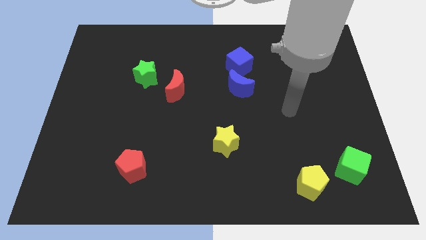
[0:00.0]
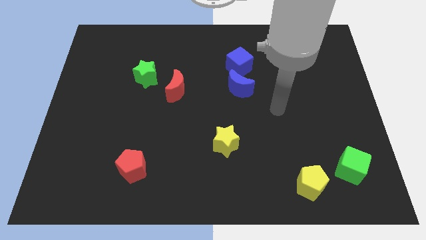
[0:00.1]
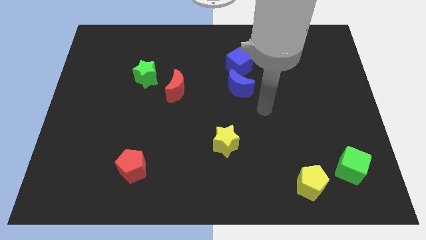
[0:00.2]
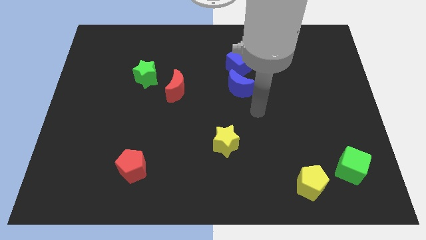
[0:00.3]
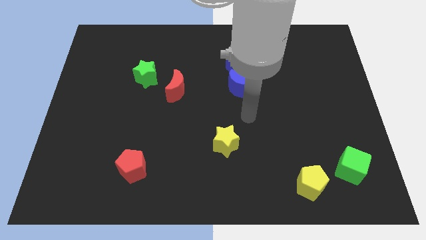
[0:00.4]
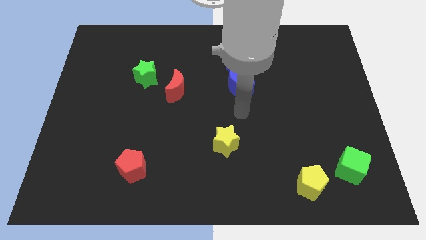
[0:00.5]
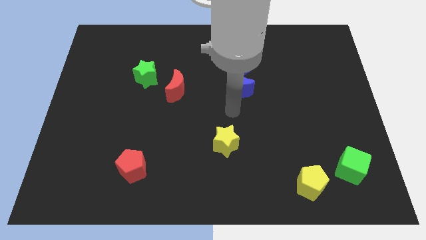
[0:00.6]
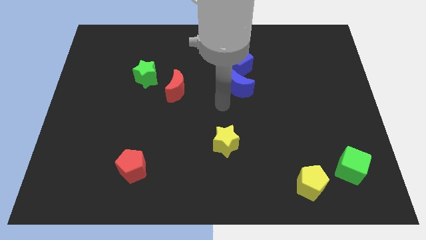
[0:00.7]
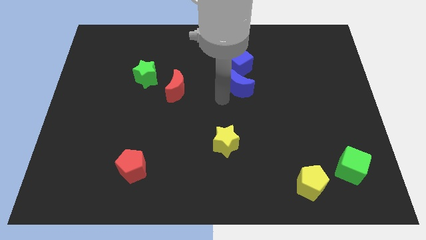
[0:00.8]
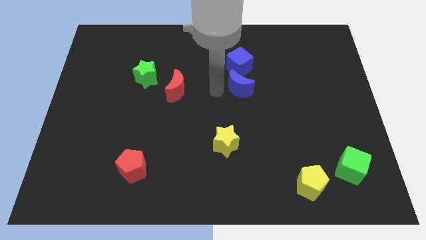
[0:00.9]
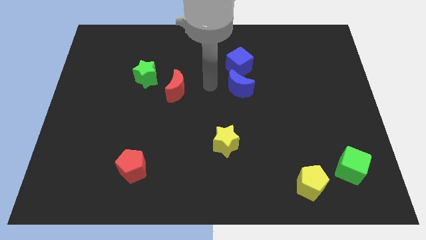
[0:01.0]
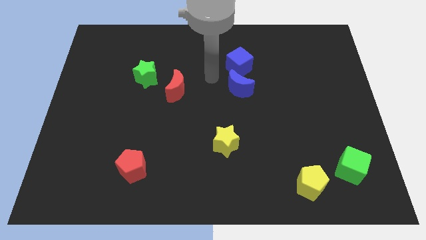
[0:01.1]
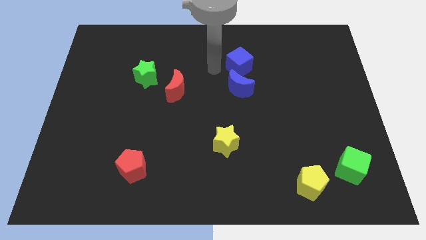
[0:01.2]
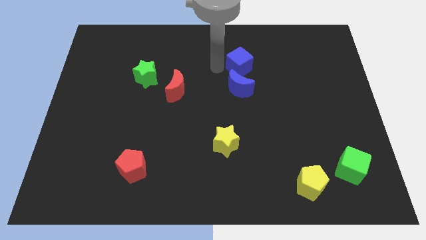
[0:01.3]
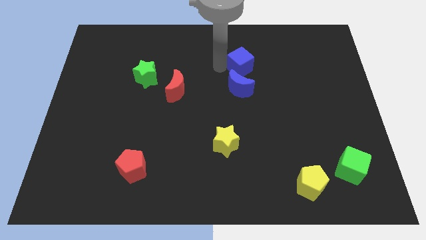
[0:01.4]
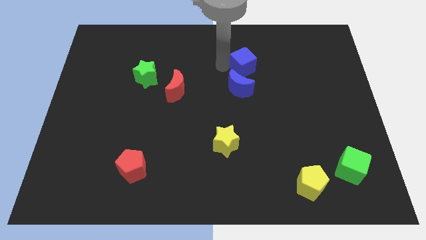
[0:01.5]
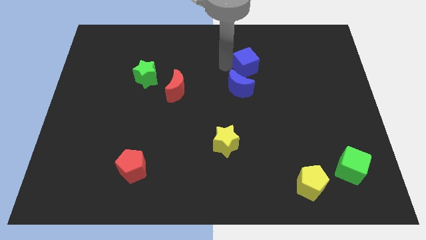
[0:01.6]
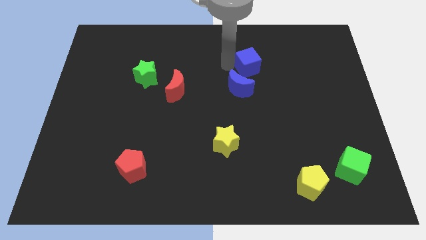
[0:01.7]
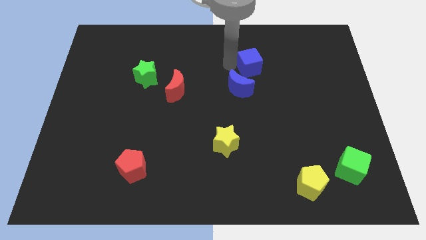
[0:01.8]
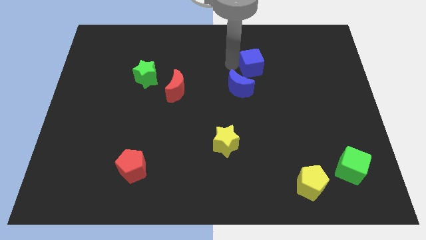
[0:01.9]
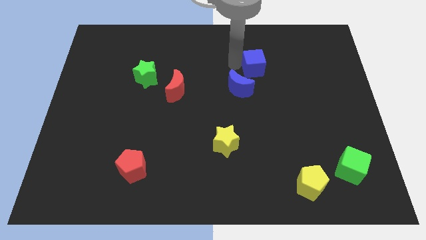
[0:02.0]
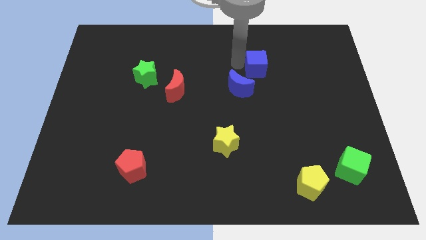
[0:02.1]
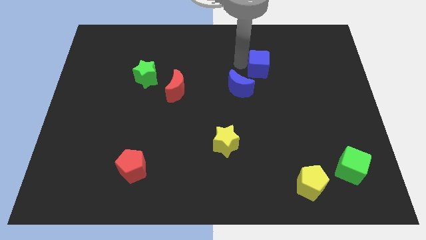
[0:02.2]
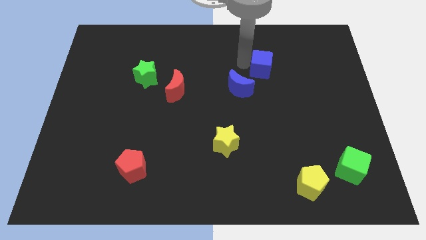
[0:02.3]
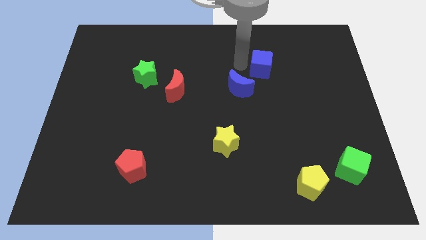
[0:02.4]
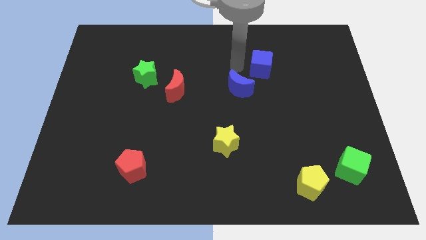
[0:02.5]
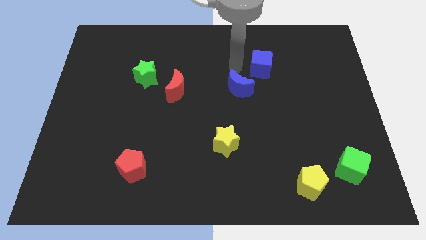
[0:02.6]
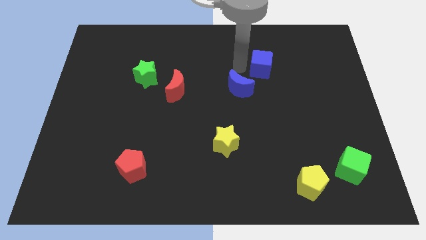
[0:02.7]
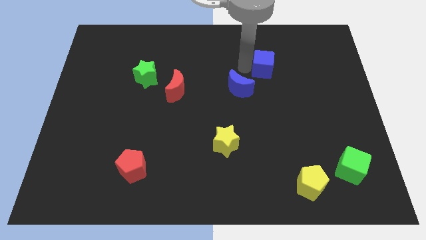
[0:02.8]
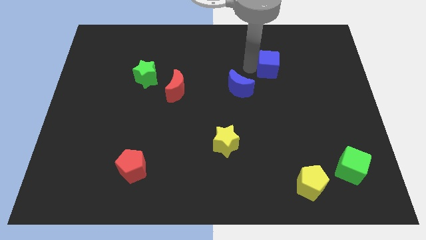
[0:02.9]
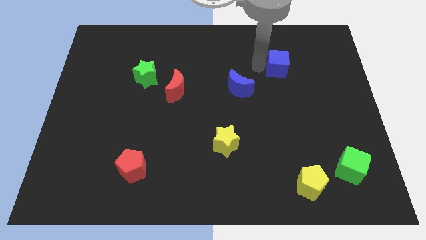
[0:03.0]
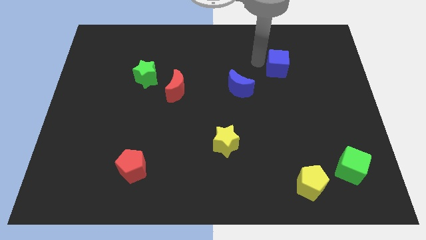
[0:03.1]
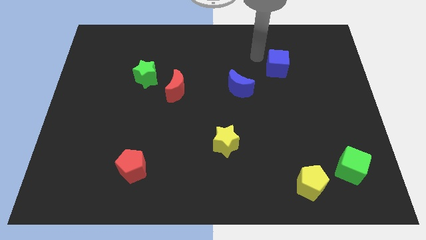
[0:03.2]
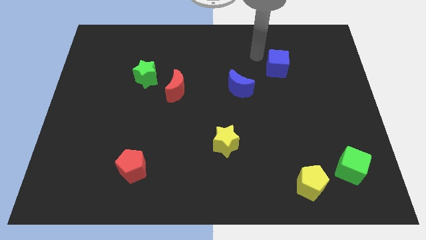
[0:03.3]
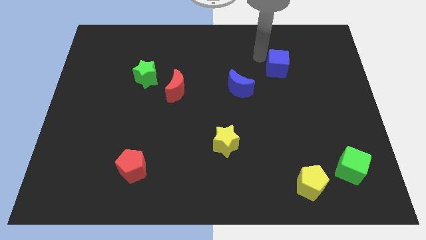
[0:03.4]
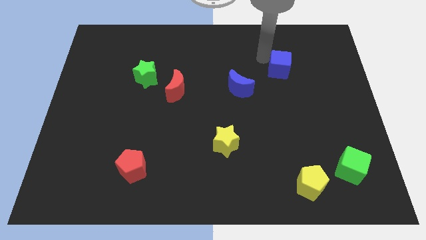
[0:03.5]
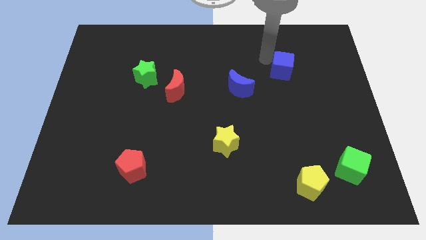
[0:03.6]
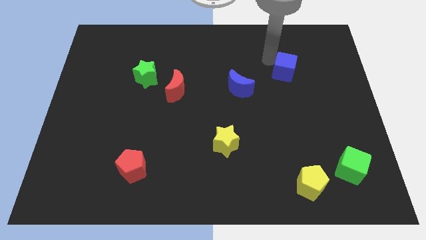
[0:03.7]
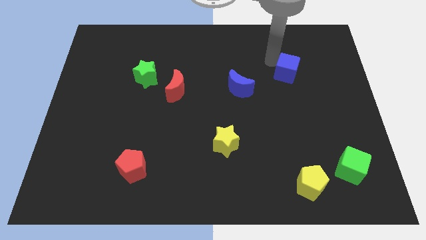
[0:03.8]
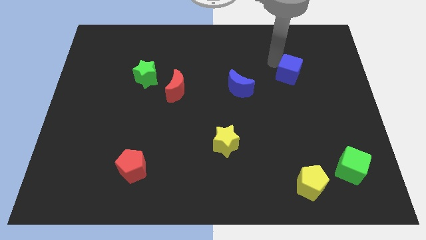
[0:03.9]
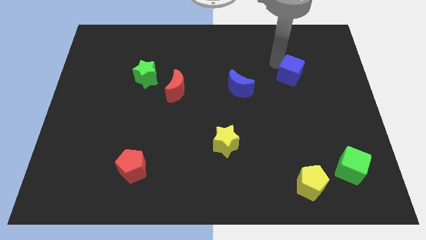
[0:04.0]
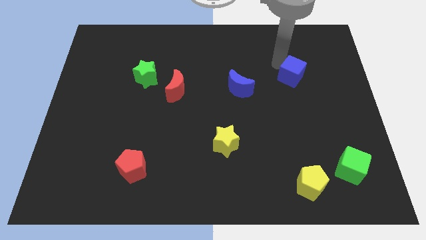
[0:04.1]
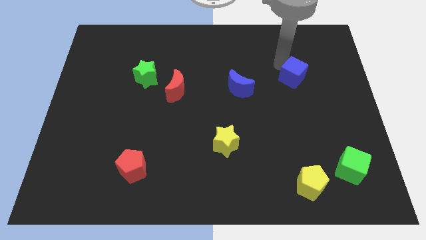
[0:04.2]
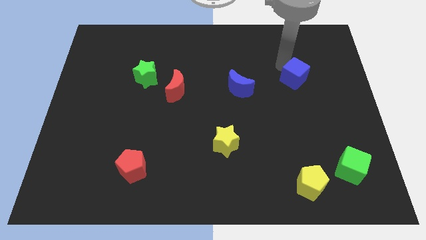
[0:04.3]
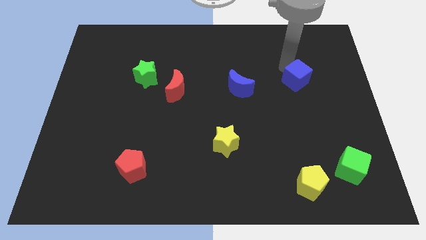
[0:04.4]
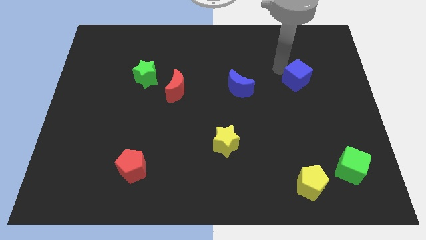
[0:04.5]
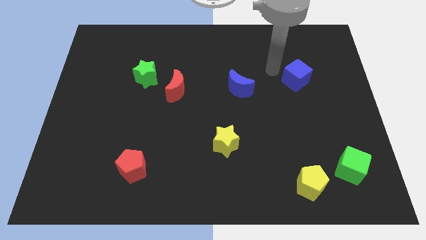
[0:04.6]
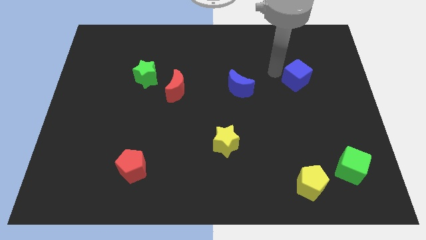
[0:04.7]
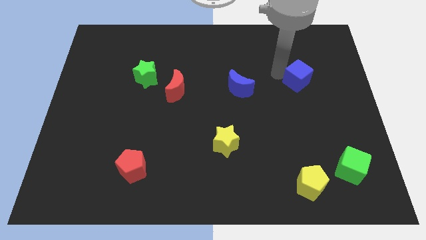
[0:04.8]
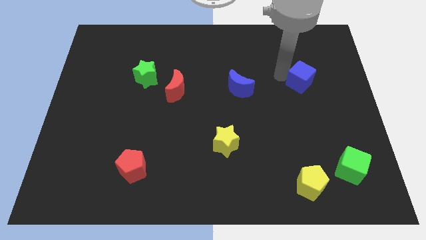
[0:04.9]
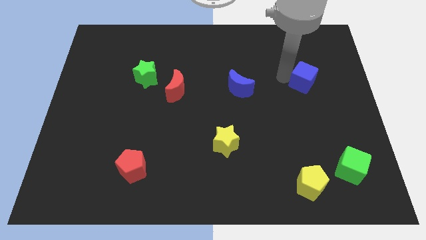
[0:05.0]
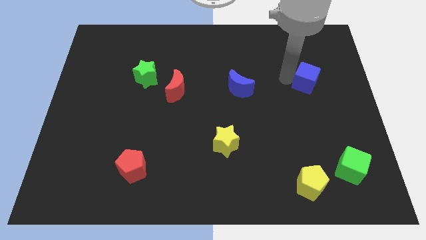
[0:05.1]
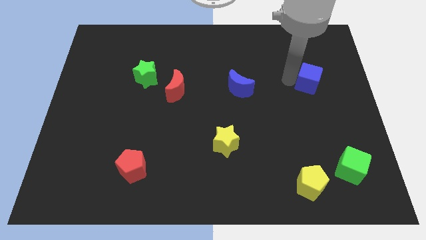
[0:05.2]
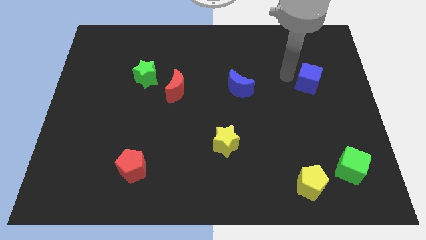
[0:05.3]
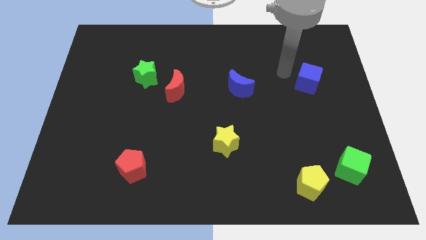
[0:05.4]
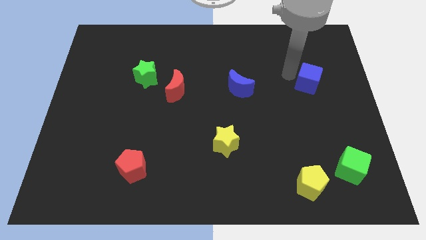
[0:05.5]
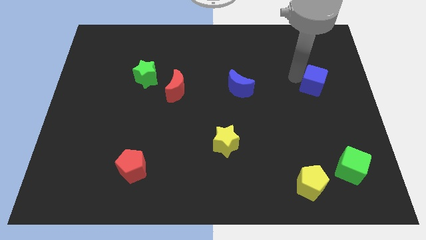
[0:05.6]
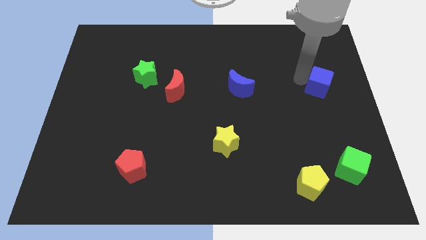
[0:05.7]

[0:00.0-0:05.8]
put the blue cube to the right side

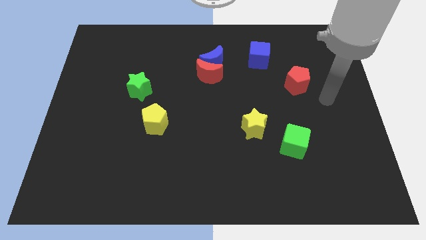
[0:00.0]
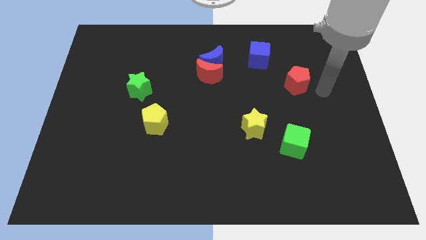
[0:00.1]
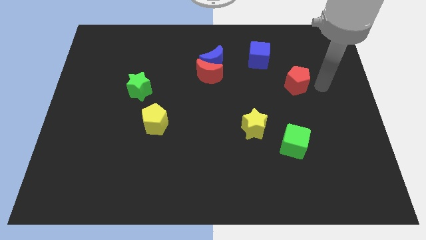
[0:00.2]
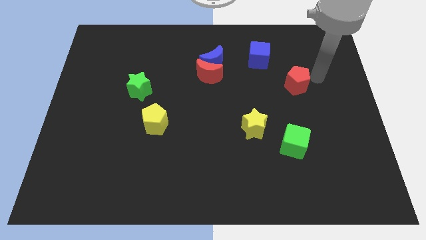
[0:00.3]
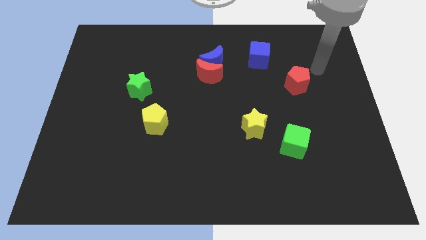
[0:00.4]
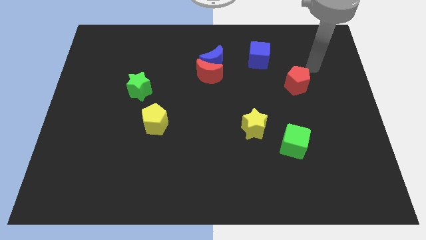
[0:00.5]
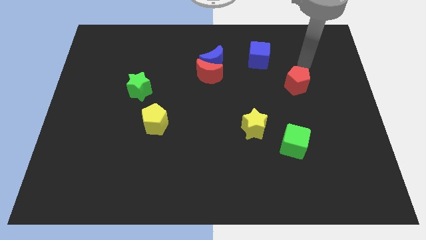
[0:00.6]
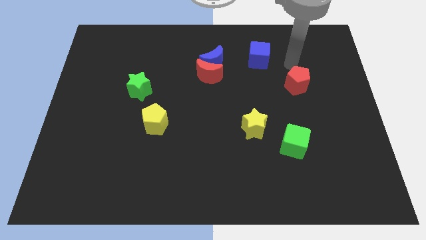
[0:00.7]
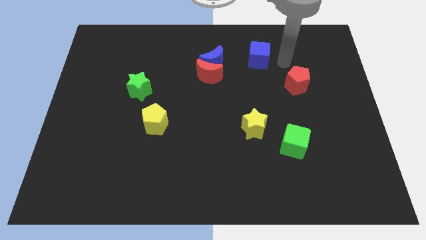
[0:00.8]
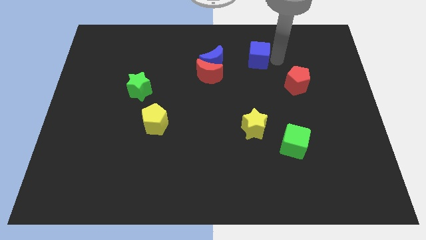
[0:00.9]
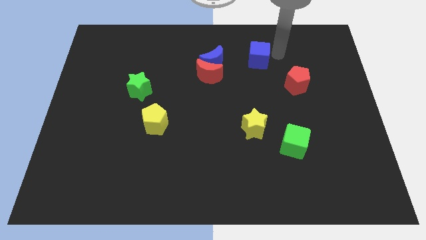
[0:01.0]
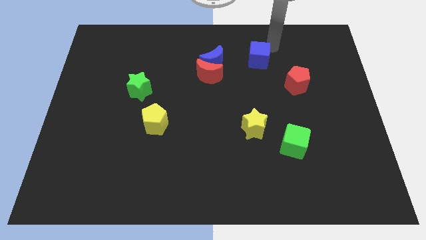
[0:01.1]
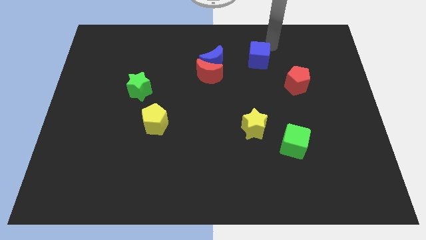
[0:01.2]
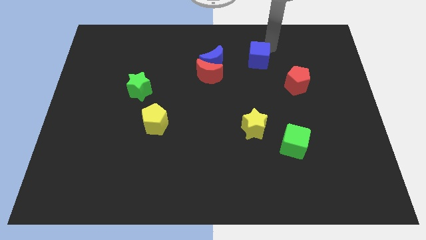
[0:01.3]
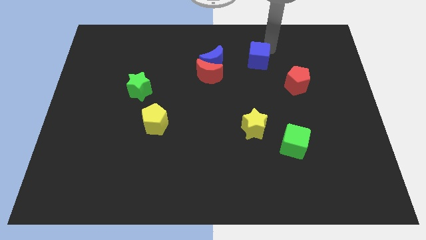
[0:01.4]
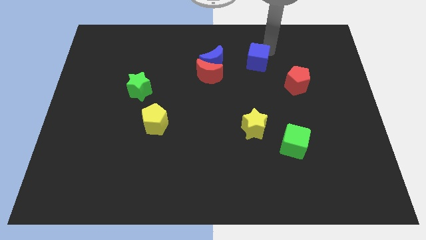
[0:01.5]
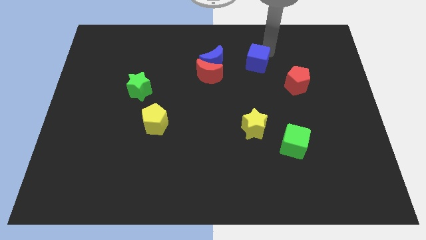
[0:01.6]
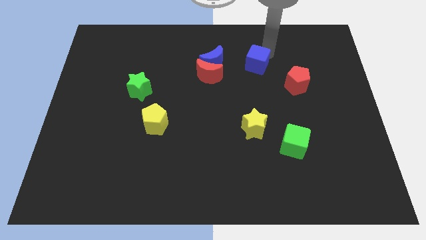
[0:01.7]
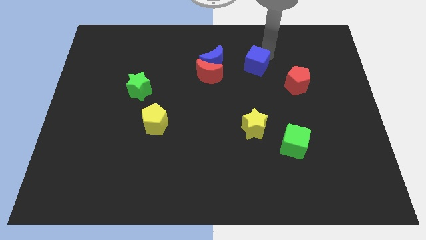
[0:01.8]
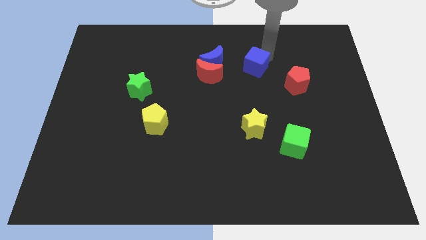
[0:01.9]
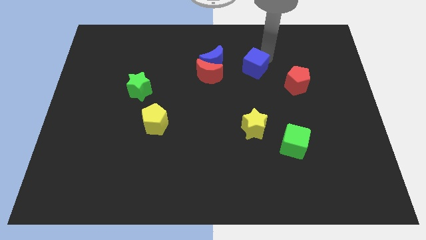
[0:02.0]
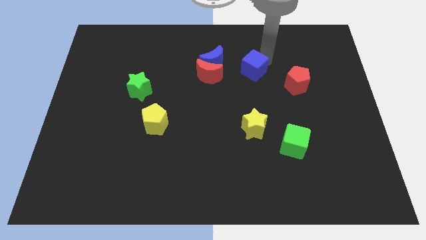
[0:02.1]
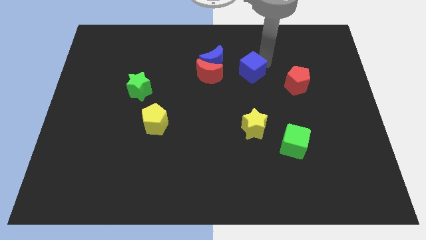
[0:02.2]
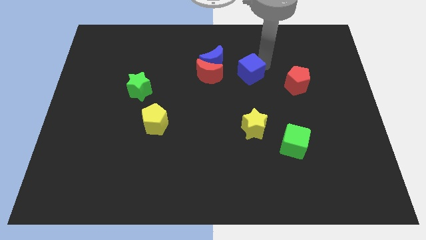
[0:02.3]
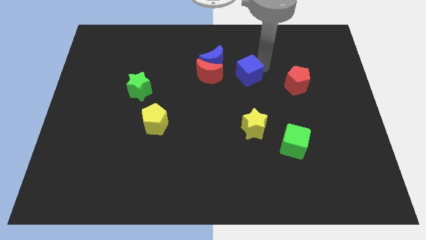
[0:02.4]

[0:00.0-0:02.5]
push the blue cube to the center of the board
